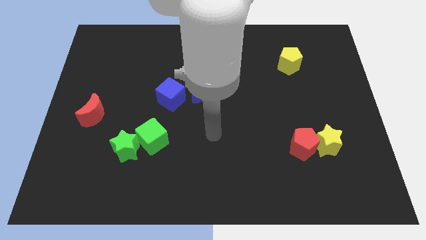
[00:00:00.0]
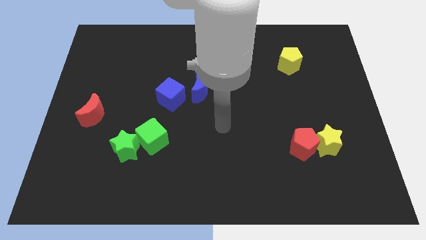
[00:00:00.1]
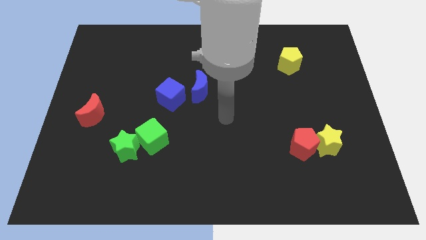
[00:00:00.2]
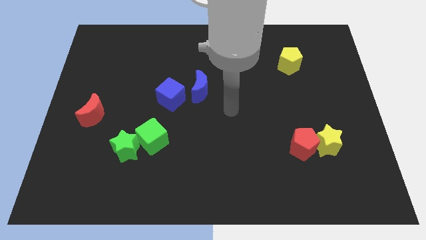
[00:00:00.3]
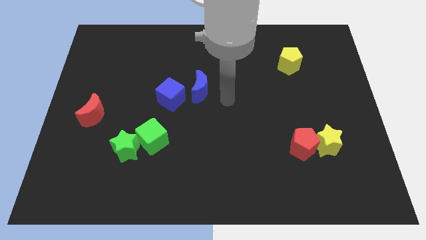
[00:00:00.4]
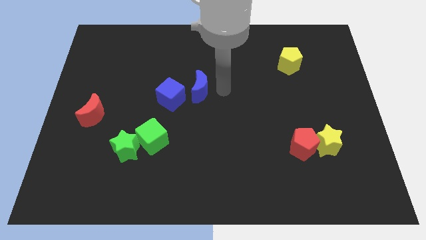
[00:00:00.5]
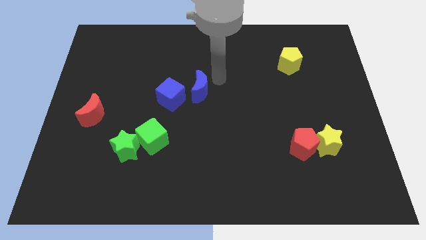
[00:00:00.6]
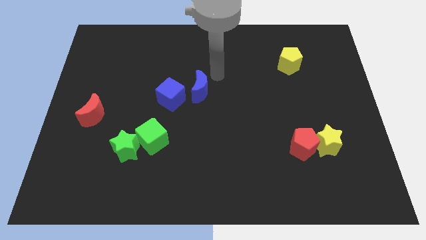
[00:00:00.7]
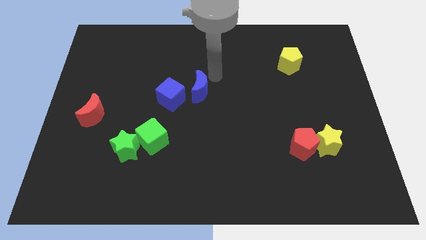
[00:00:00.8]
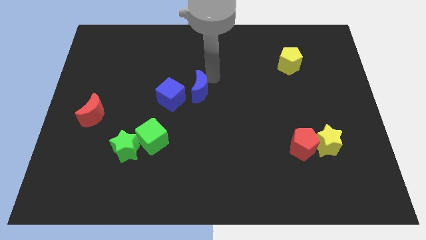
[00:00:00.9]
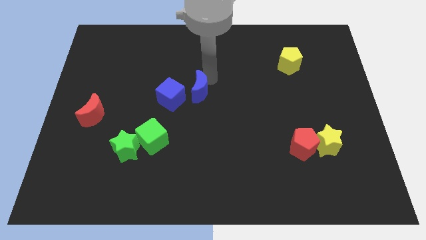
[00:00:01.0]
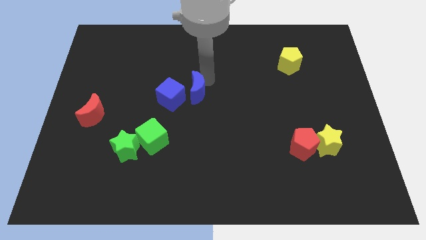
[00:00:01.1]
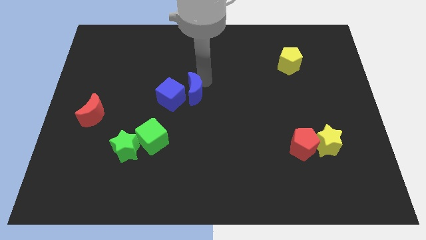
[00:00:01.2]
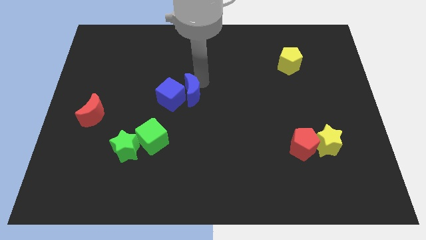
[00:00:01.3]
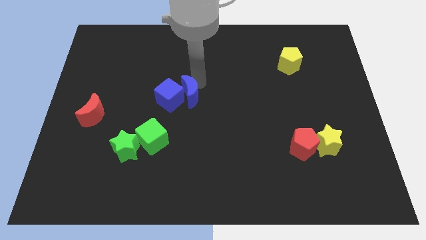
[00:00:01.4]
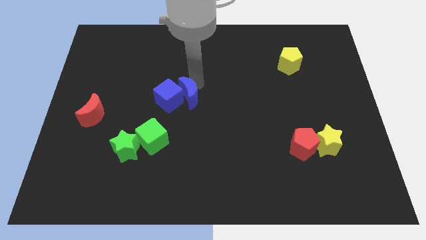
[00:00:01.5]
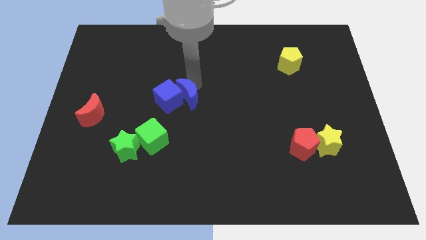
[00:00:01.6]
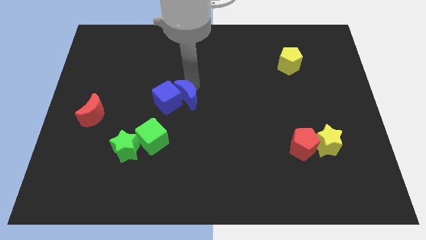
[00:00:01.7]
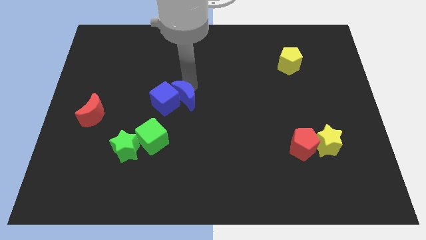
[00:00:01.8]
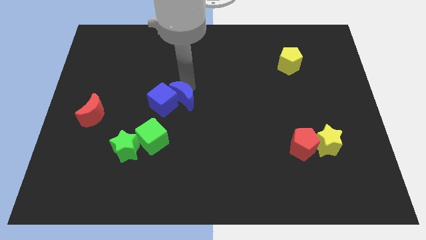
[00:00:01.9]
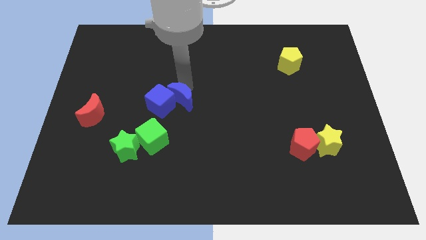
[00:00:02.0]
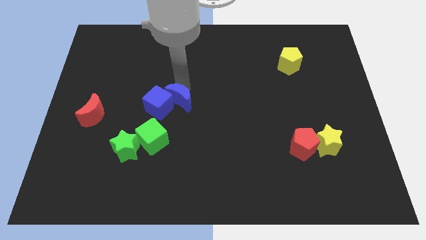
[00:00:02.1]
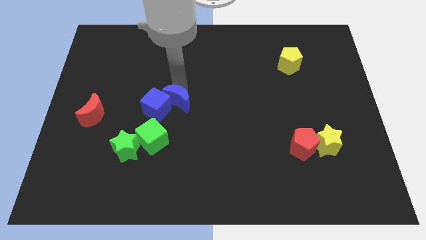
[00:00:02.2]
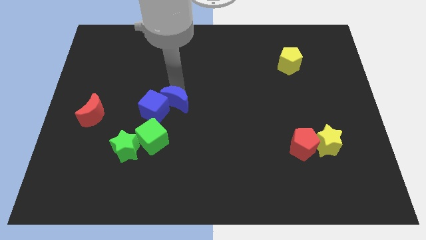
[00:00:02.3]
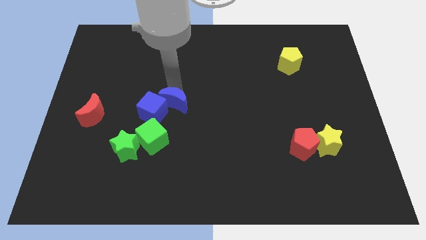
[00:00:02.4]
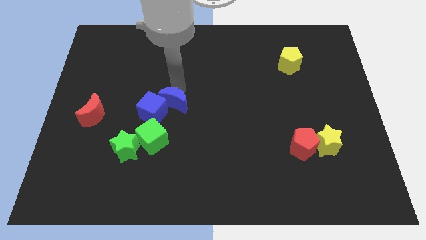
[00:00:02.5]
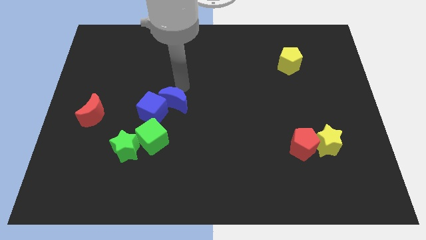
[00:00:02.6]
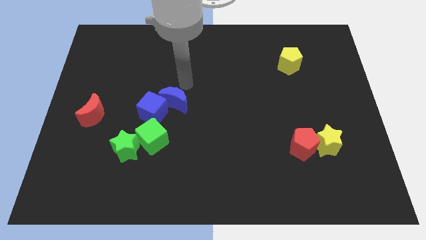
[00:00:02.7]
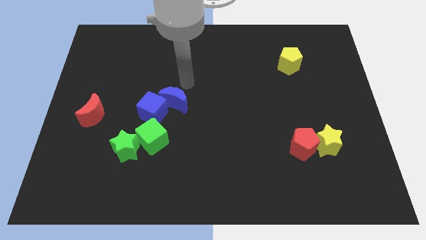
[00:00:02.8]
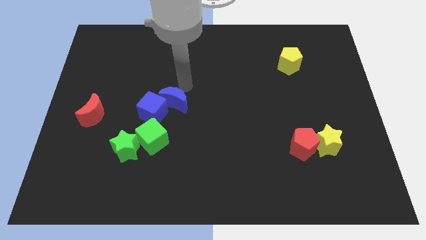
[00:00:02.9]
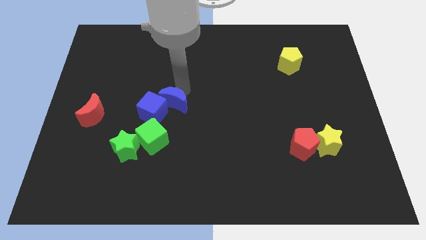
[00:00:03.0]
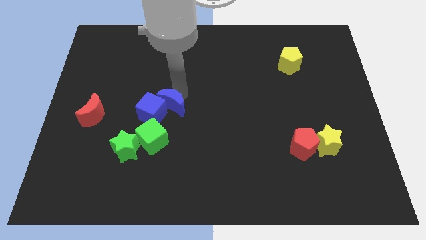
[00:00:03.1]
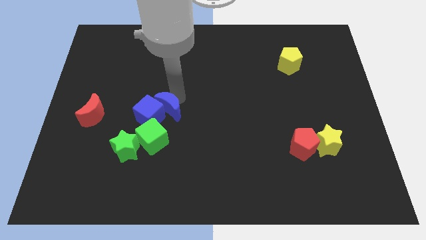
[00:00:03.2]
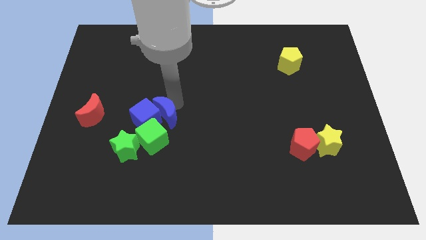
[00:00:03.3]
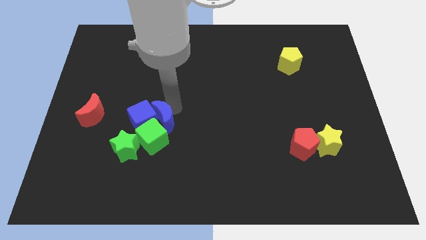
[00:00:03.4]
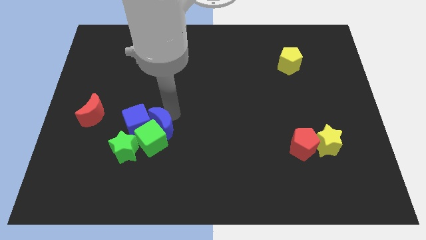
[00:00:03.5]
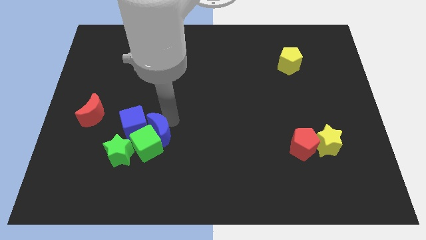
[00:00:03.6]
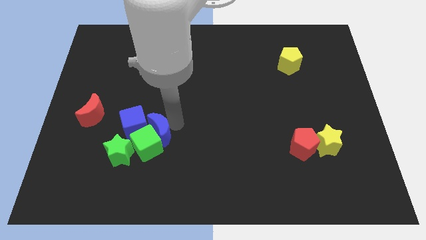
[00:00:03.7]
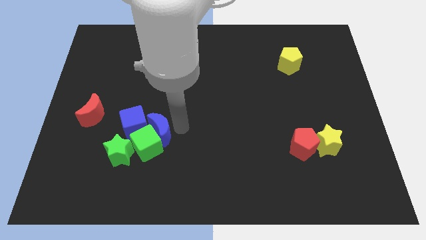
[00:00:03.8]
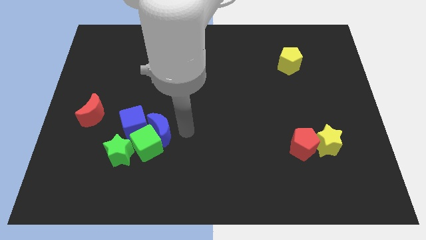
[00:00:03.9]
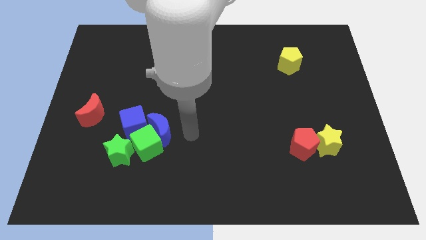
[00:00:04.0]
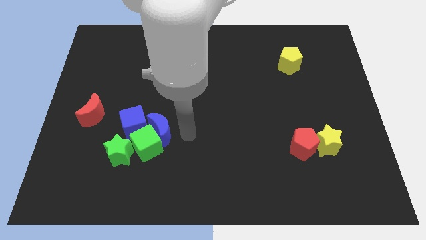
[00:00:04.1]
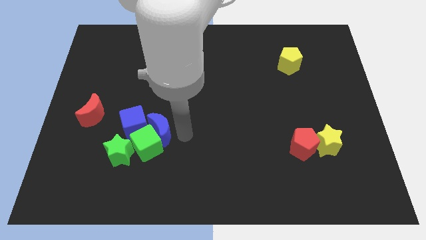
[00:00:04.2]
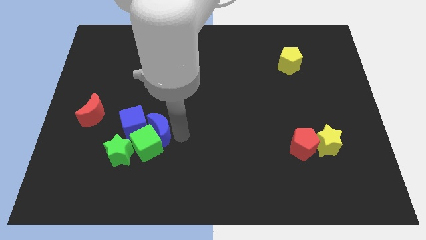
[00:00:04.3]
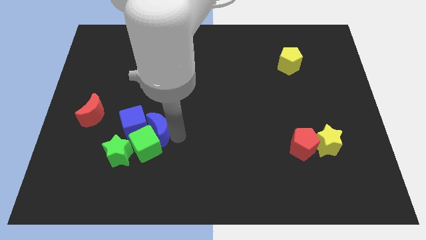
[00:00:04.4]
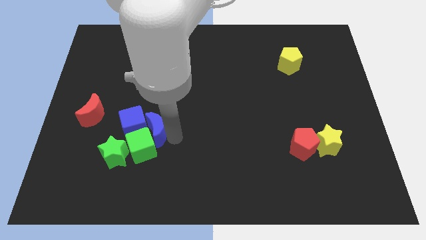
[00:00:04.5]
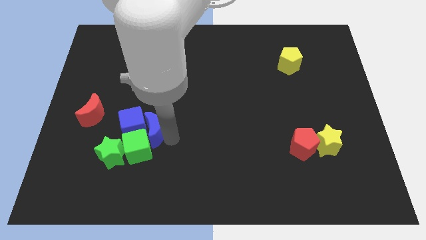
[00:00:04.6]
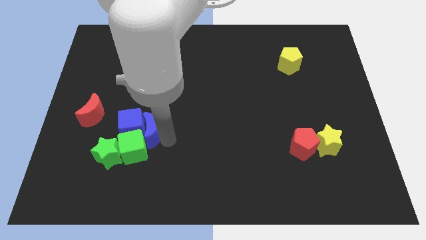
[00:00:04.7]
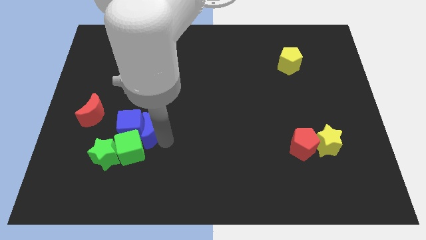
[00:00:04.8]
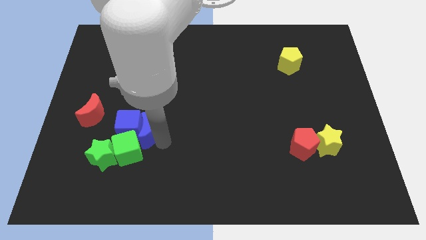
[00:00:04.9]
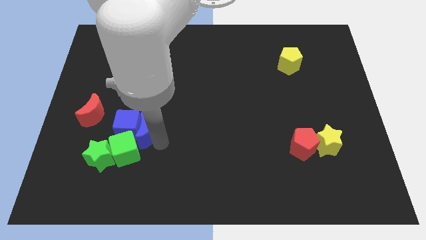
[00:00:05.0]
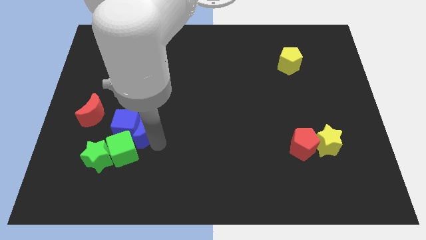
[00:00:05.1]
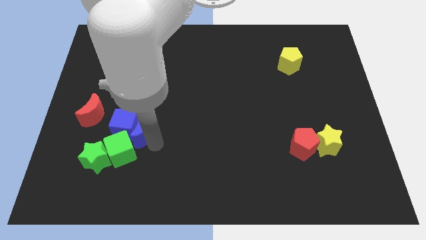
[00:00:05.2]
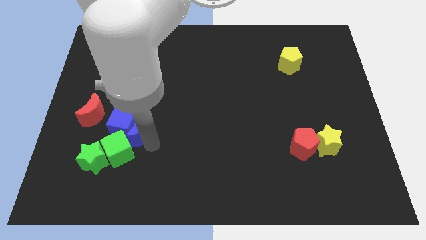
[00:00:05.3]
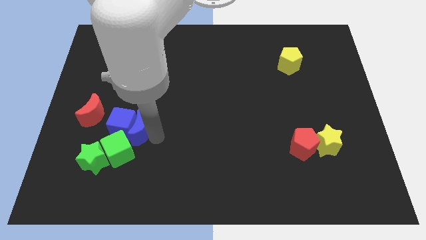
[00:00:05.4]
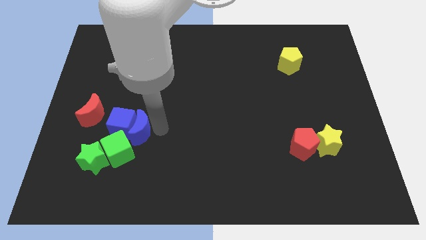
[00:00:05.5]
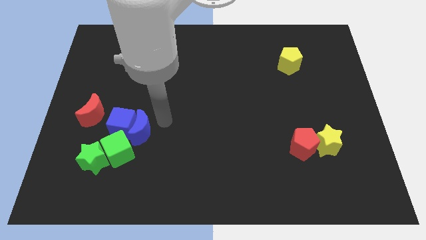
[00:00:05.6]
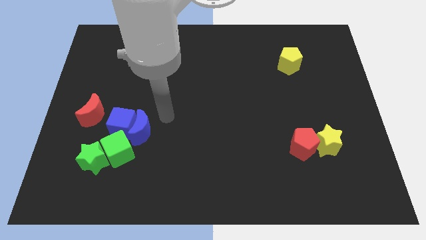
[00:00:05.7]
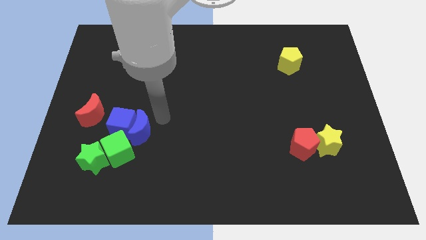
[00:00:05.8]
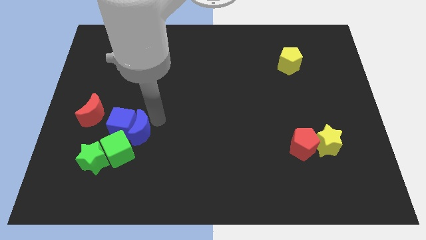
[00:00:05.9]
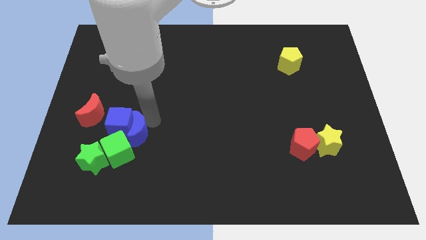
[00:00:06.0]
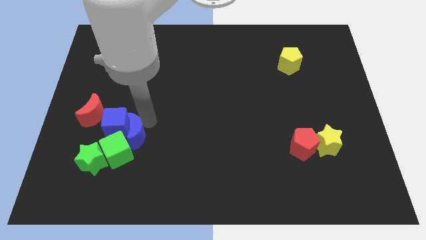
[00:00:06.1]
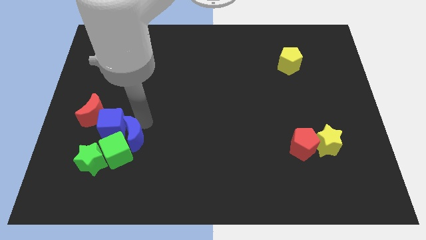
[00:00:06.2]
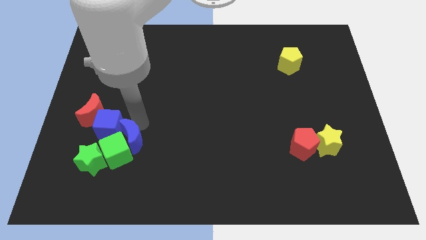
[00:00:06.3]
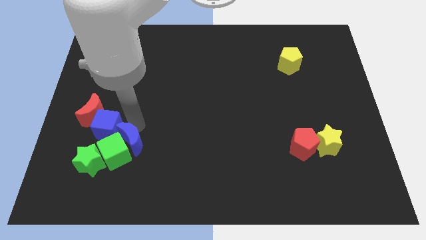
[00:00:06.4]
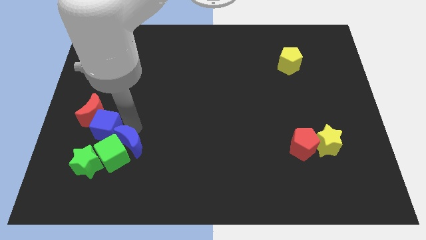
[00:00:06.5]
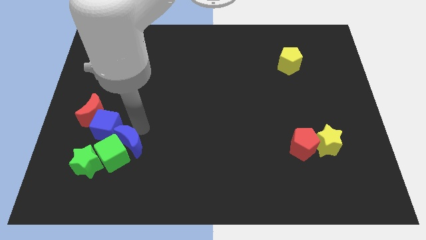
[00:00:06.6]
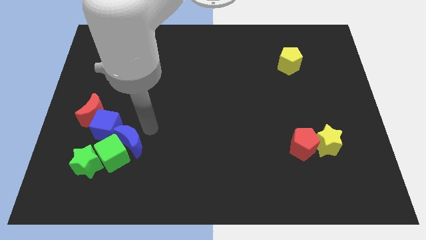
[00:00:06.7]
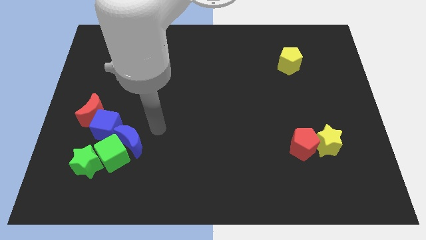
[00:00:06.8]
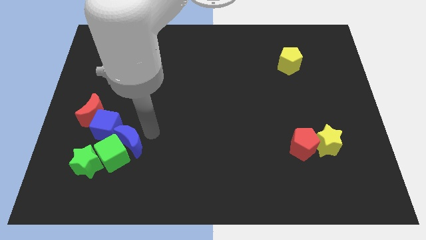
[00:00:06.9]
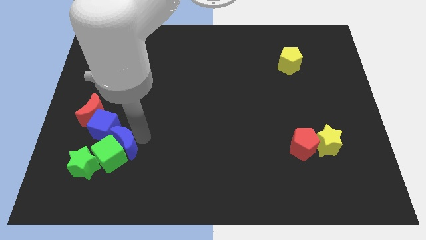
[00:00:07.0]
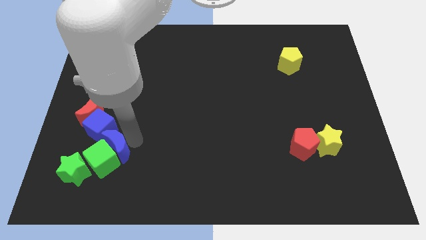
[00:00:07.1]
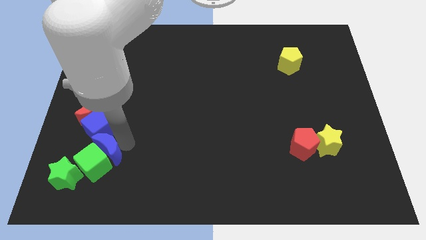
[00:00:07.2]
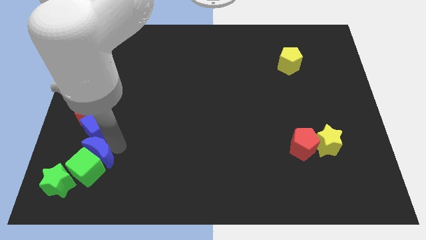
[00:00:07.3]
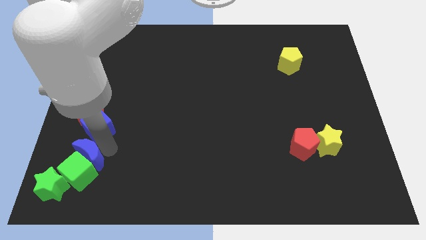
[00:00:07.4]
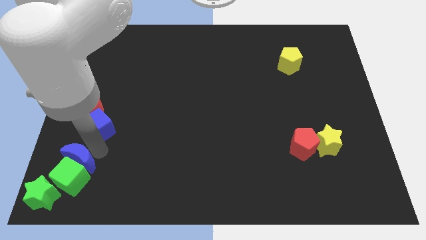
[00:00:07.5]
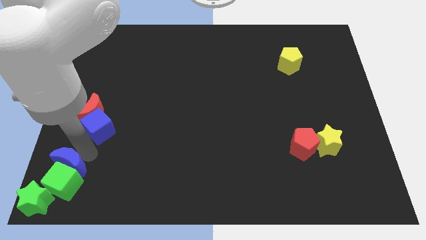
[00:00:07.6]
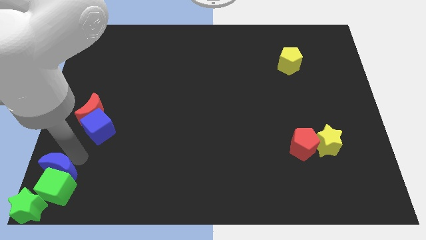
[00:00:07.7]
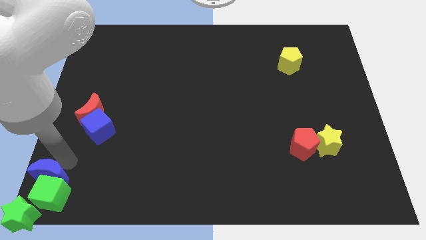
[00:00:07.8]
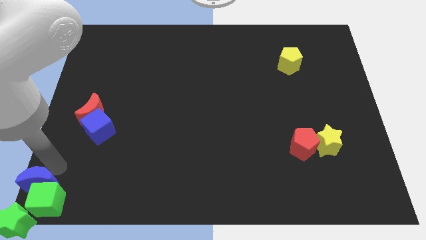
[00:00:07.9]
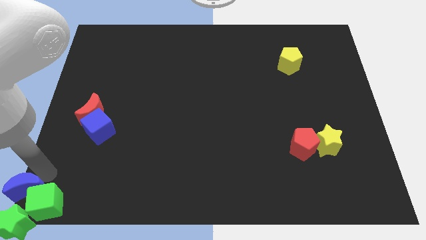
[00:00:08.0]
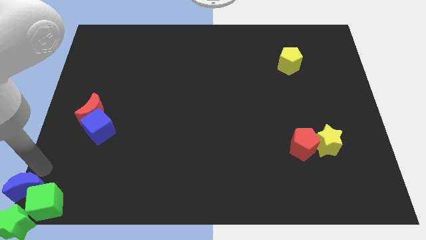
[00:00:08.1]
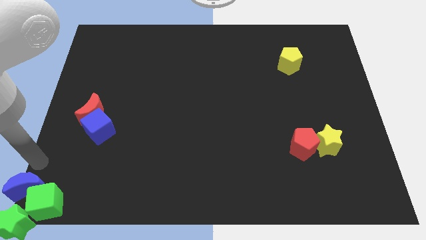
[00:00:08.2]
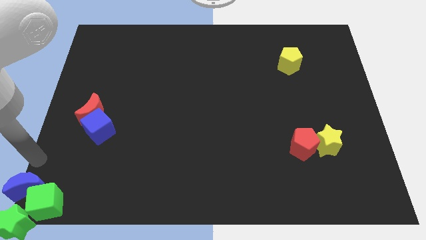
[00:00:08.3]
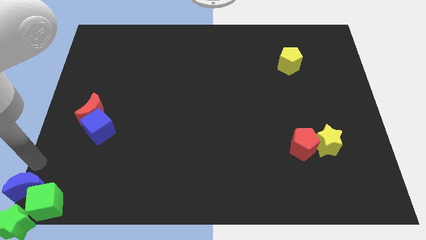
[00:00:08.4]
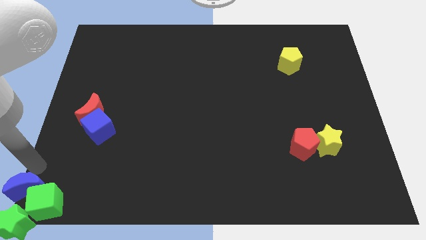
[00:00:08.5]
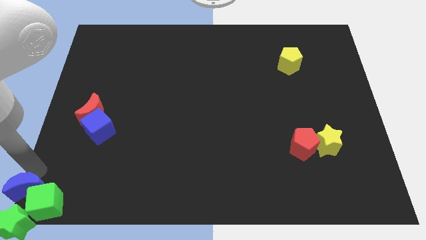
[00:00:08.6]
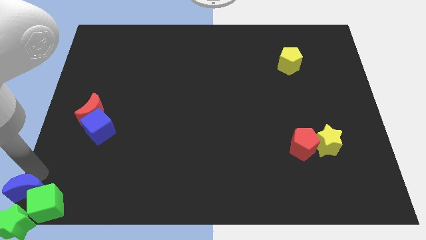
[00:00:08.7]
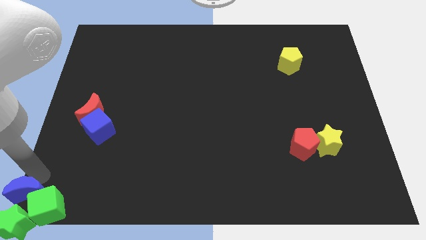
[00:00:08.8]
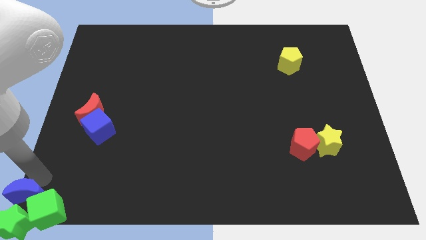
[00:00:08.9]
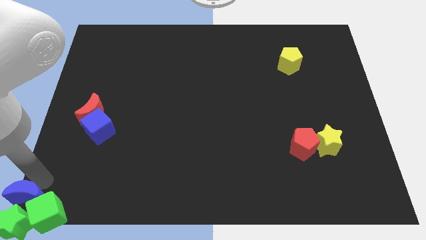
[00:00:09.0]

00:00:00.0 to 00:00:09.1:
slide the blue moon next to the green star
